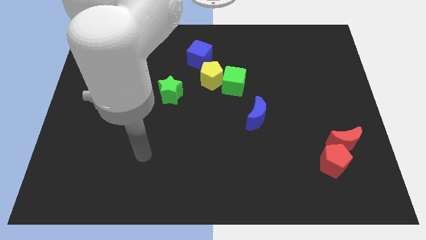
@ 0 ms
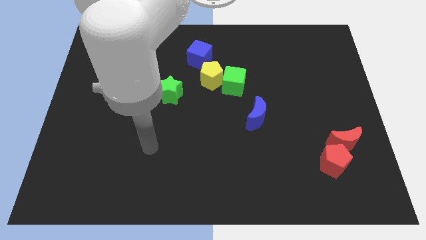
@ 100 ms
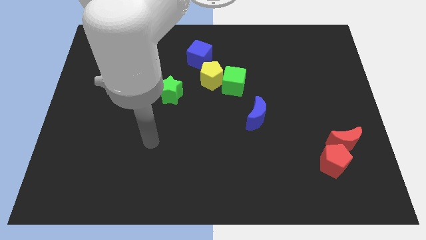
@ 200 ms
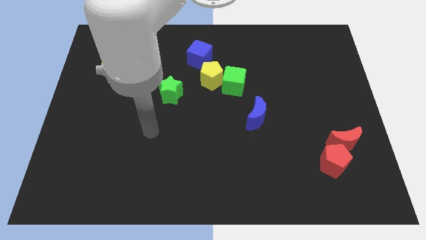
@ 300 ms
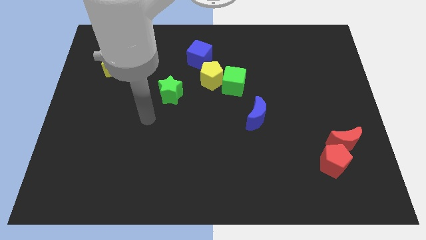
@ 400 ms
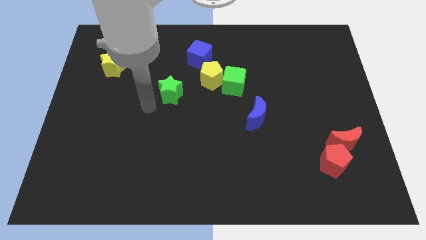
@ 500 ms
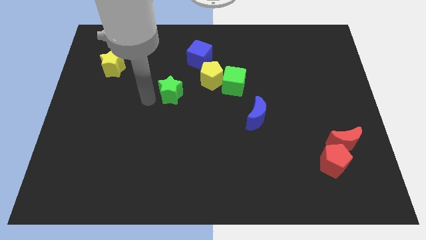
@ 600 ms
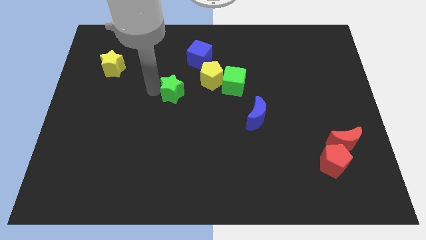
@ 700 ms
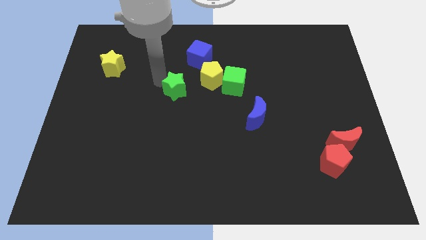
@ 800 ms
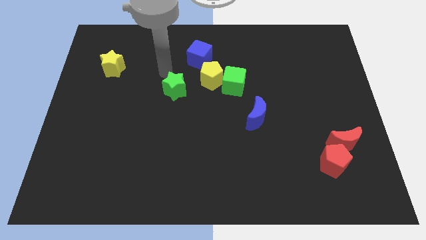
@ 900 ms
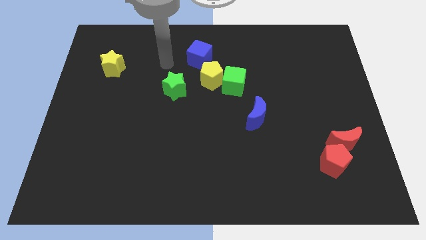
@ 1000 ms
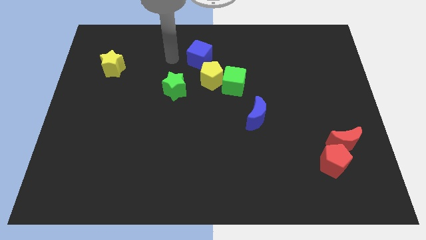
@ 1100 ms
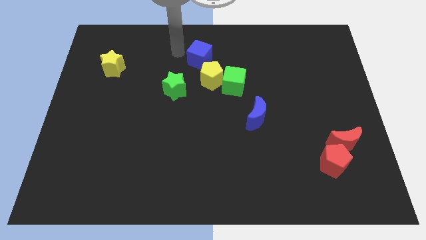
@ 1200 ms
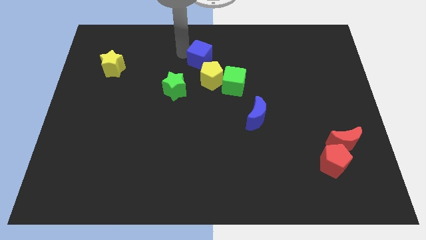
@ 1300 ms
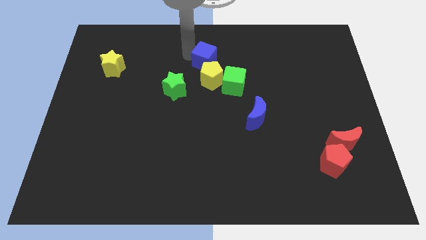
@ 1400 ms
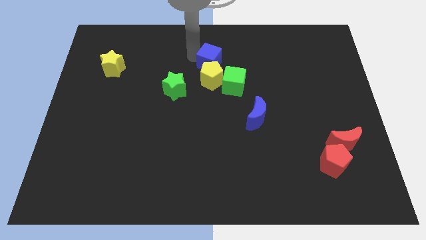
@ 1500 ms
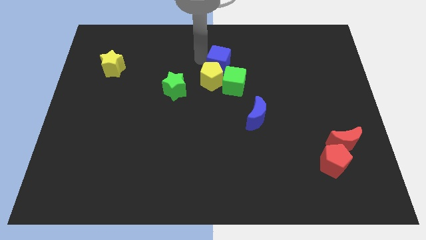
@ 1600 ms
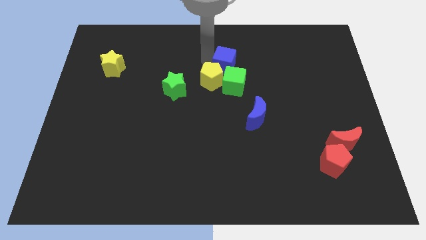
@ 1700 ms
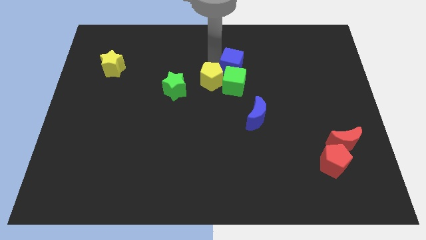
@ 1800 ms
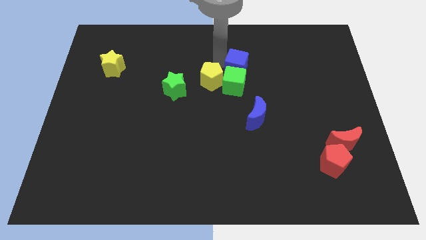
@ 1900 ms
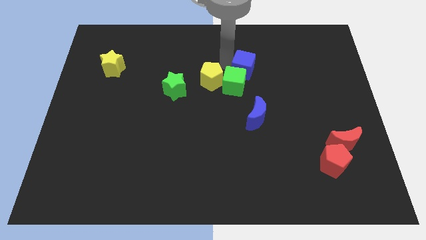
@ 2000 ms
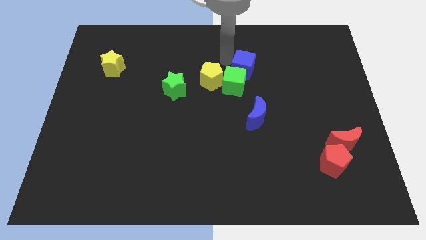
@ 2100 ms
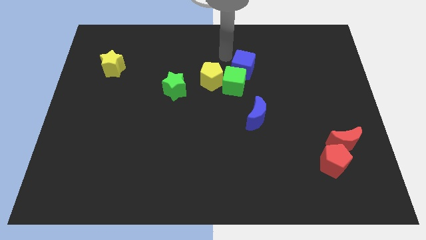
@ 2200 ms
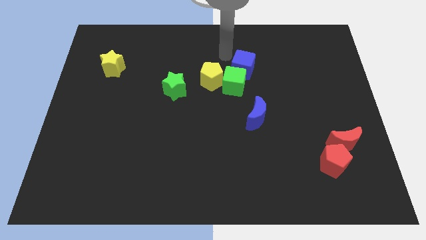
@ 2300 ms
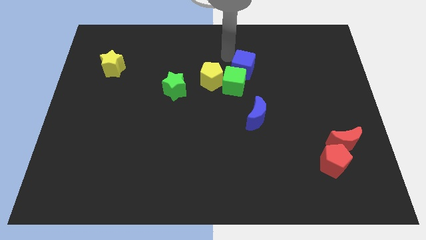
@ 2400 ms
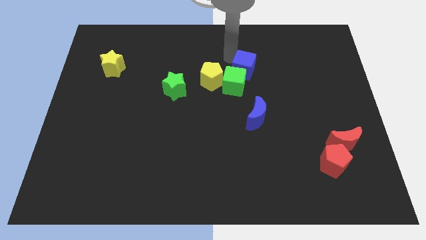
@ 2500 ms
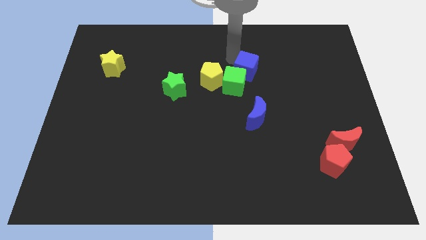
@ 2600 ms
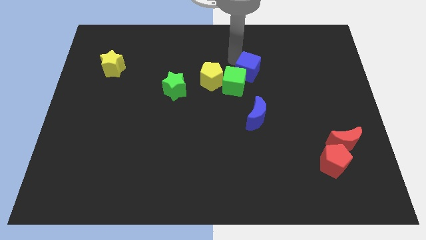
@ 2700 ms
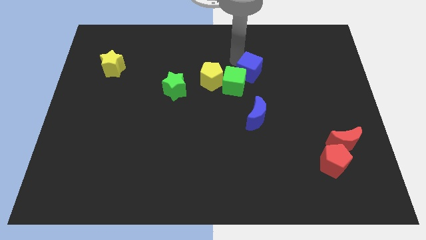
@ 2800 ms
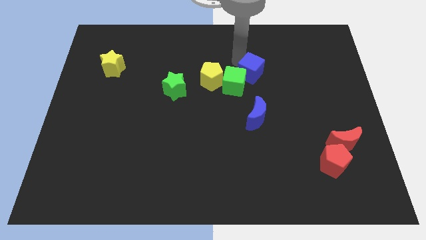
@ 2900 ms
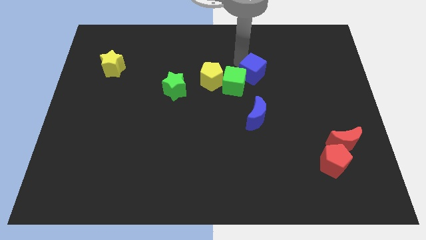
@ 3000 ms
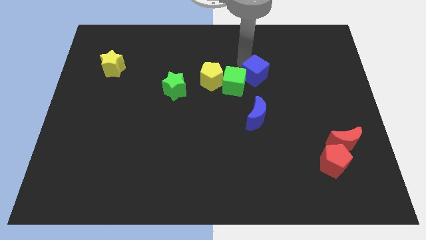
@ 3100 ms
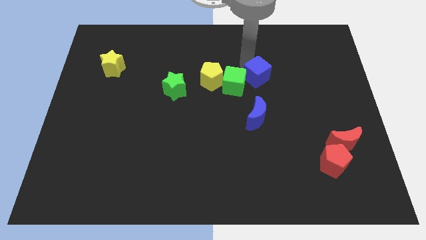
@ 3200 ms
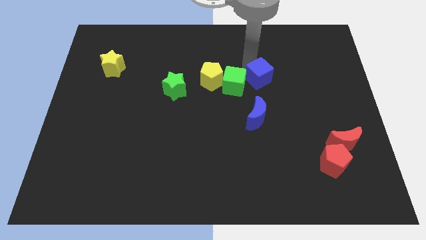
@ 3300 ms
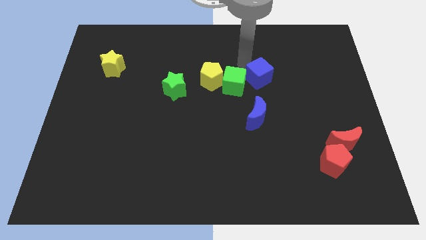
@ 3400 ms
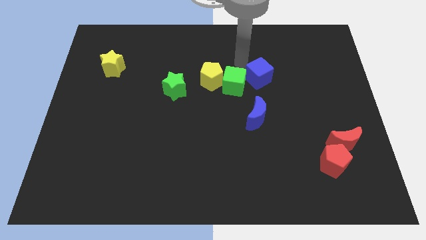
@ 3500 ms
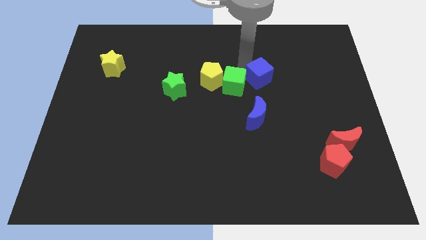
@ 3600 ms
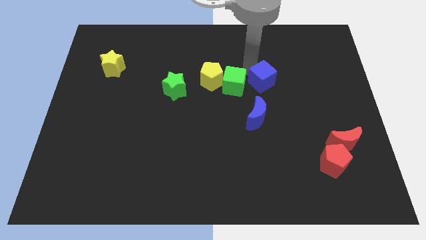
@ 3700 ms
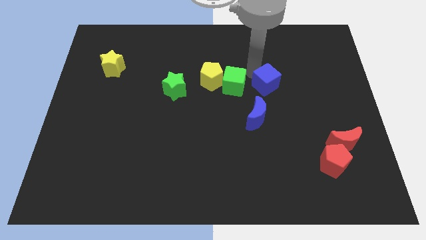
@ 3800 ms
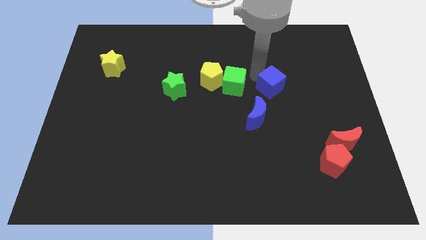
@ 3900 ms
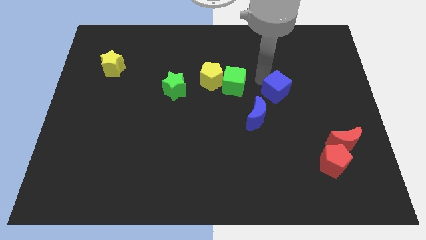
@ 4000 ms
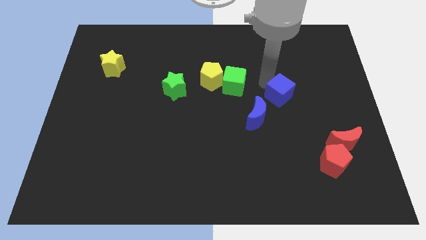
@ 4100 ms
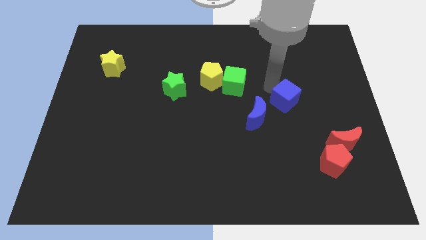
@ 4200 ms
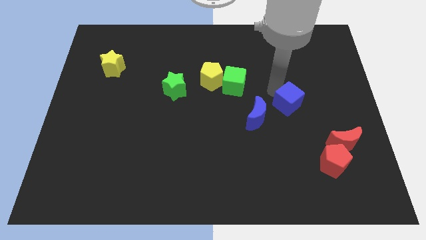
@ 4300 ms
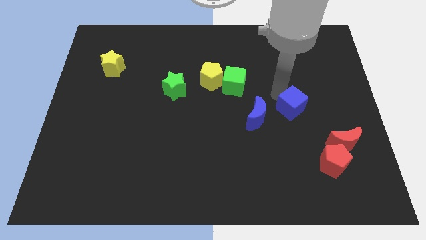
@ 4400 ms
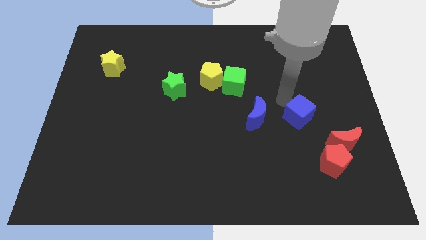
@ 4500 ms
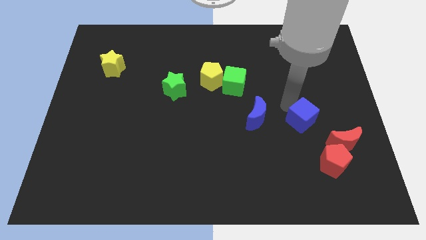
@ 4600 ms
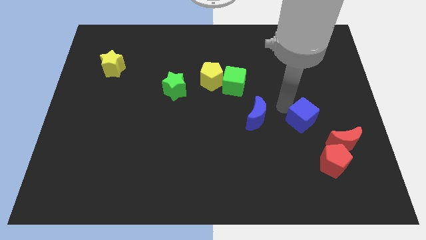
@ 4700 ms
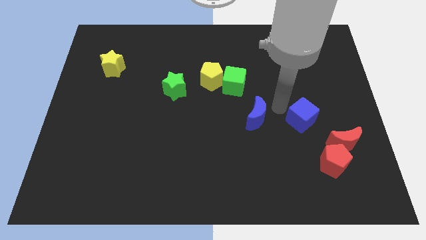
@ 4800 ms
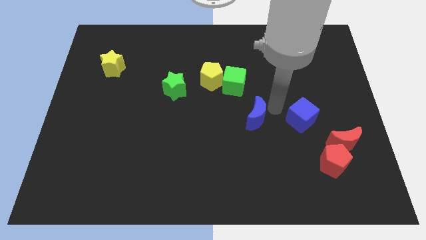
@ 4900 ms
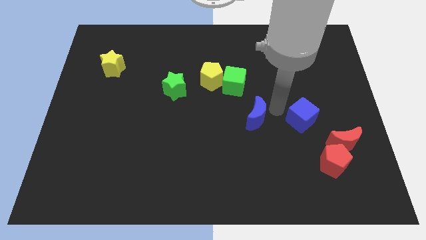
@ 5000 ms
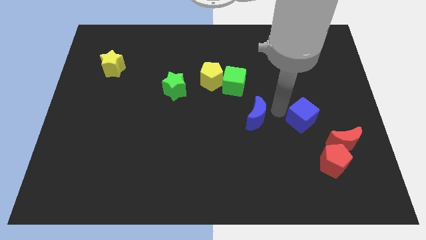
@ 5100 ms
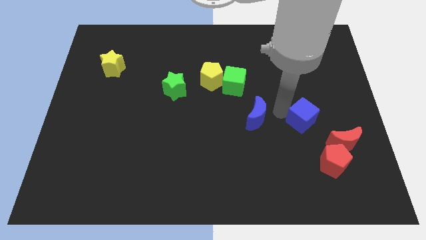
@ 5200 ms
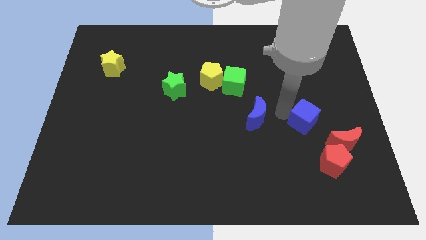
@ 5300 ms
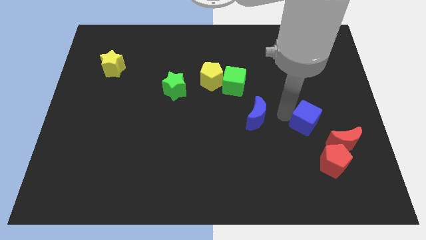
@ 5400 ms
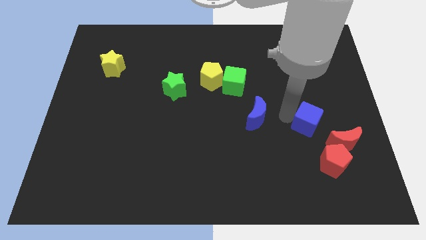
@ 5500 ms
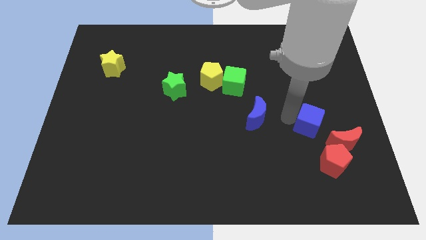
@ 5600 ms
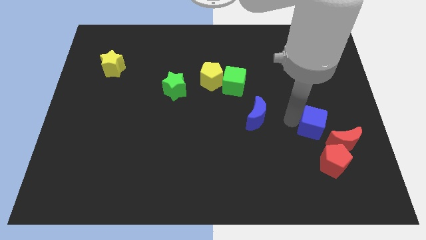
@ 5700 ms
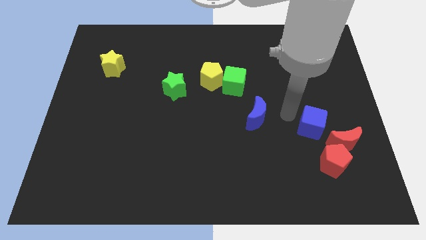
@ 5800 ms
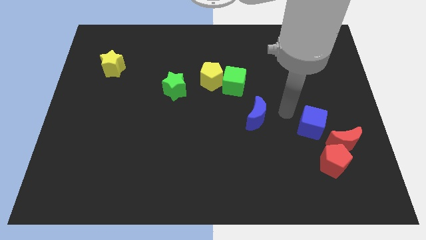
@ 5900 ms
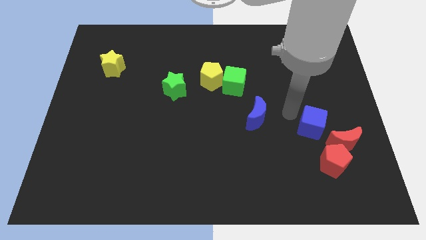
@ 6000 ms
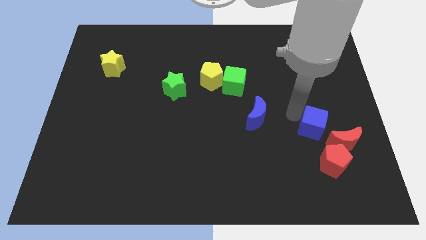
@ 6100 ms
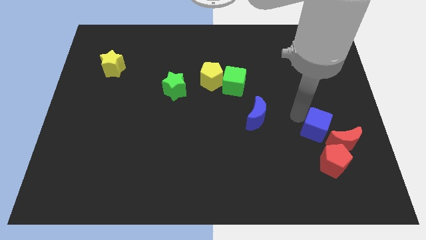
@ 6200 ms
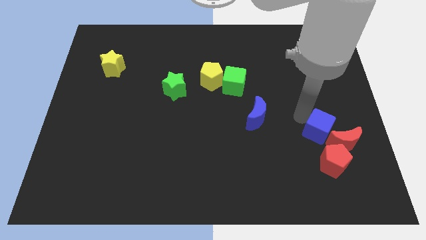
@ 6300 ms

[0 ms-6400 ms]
move the blue cube next to the red moon

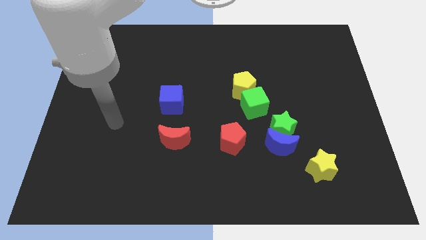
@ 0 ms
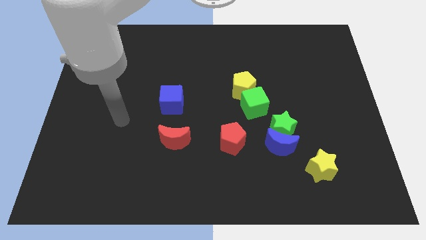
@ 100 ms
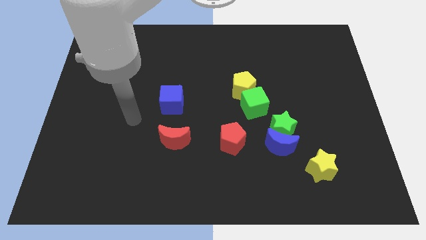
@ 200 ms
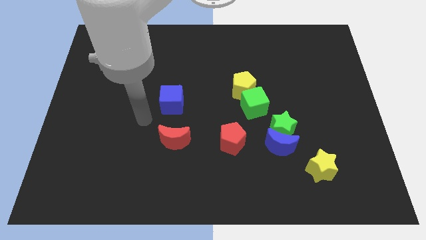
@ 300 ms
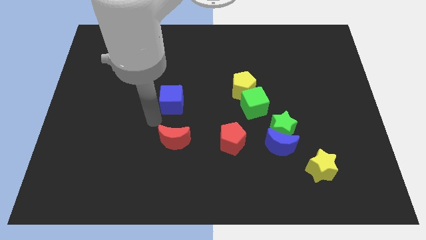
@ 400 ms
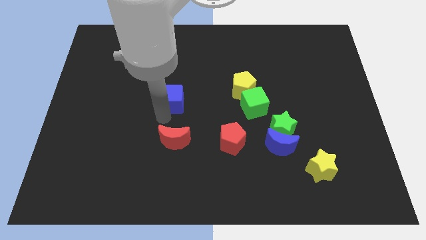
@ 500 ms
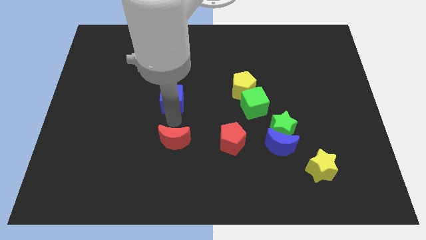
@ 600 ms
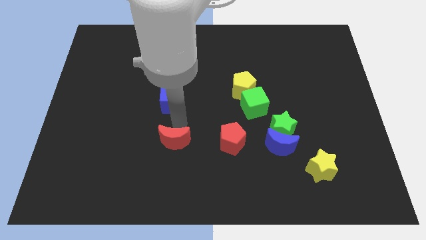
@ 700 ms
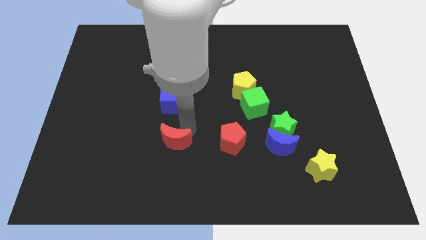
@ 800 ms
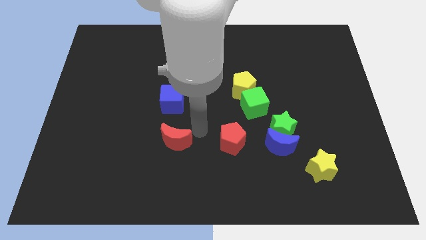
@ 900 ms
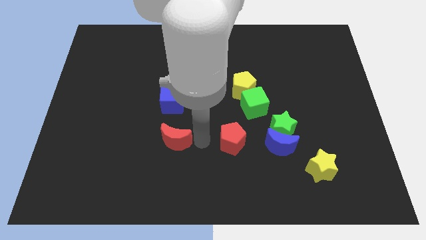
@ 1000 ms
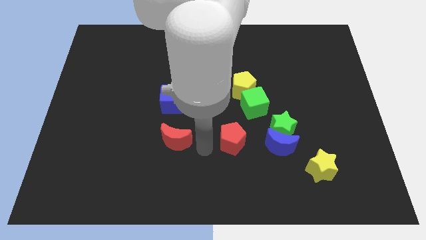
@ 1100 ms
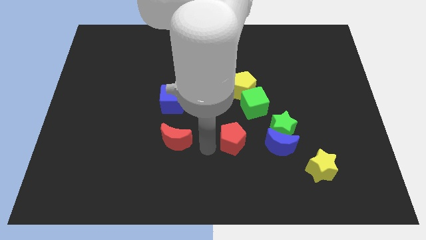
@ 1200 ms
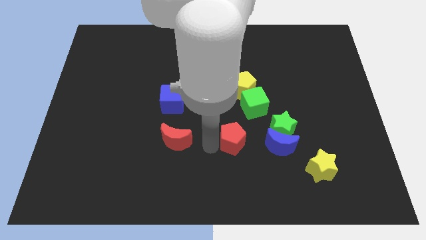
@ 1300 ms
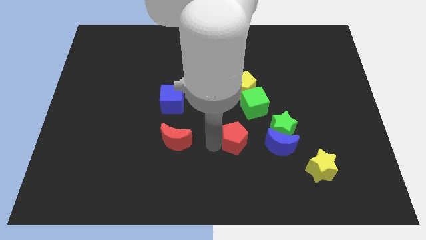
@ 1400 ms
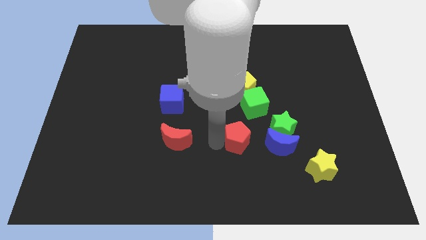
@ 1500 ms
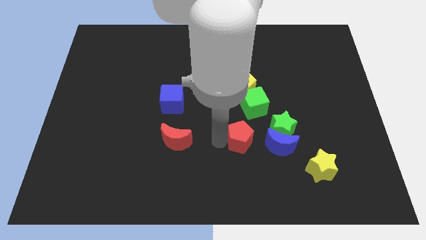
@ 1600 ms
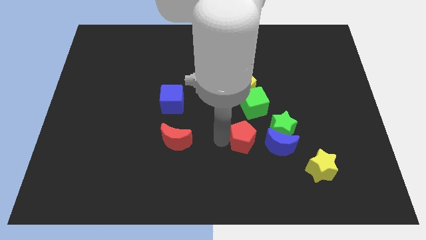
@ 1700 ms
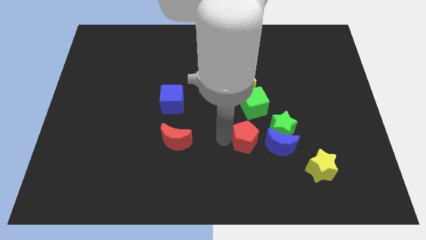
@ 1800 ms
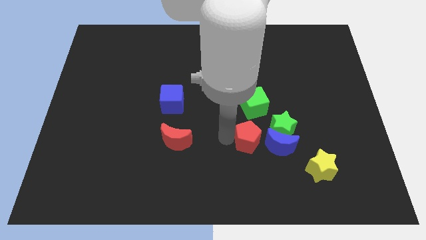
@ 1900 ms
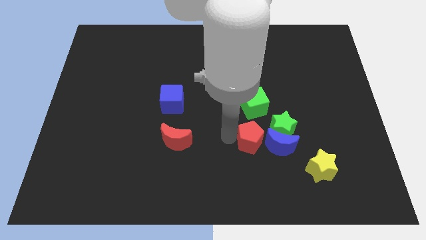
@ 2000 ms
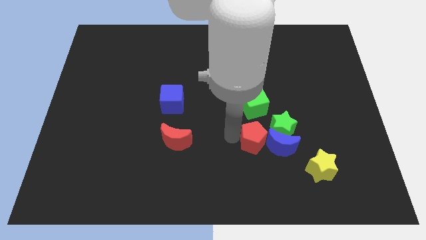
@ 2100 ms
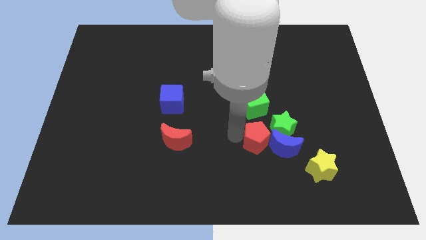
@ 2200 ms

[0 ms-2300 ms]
push the red pentagon next to the green star
